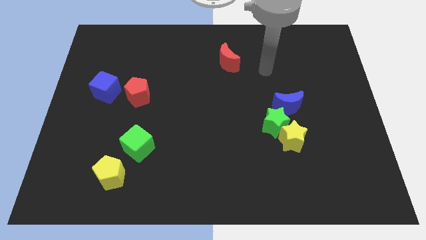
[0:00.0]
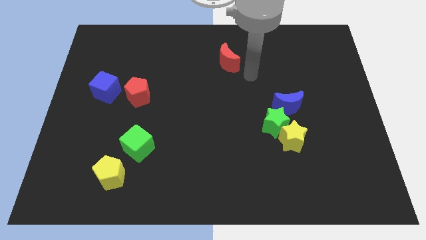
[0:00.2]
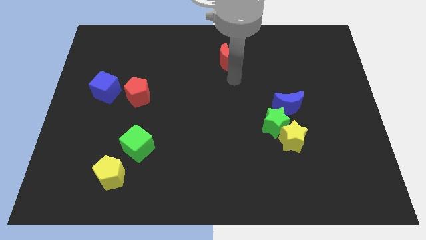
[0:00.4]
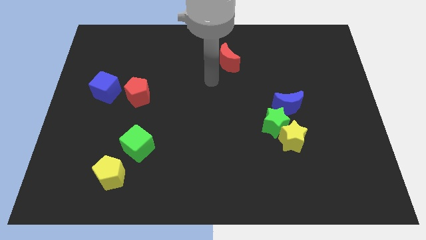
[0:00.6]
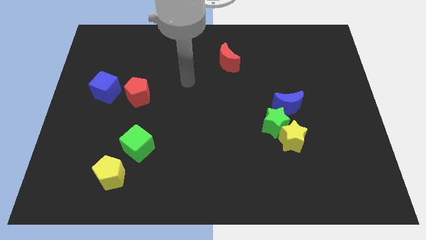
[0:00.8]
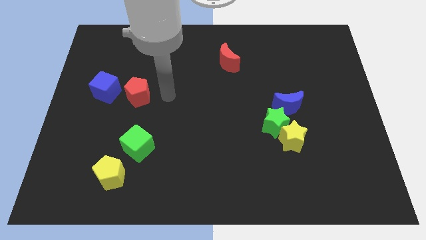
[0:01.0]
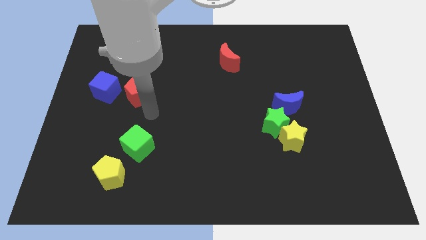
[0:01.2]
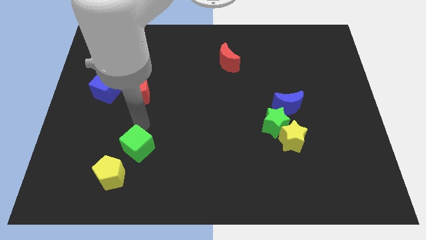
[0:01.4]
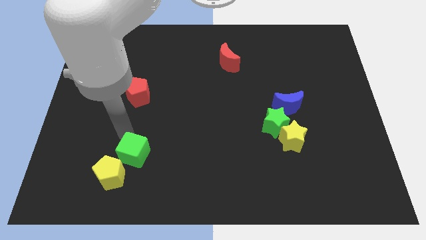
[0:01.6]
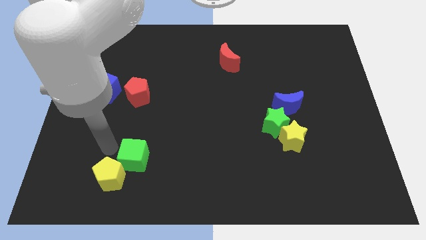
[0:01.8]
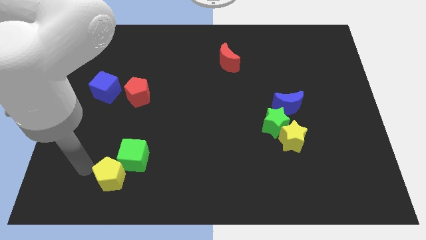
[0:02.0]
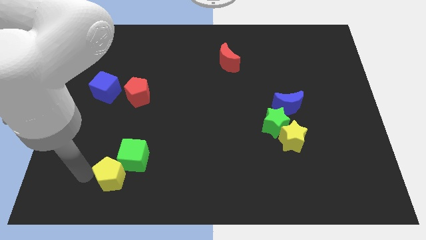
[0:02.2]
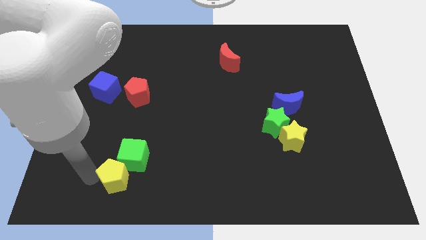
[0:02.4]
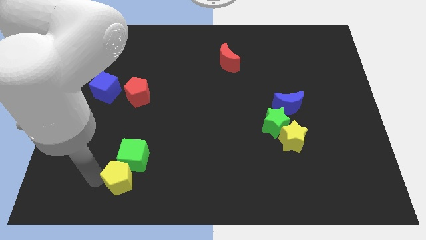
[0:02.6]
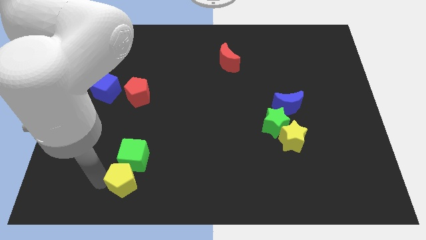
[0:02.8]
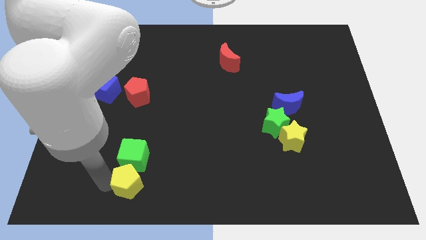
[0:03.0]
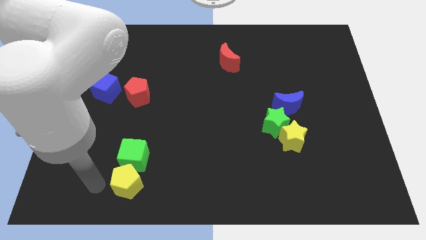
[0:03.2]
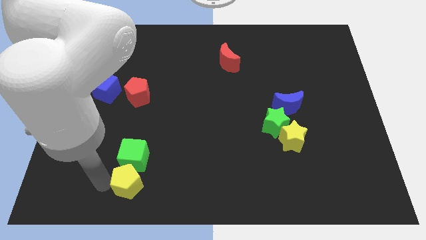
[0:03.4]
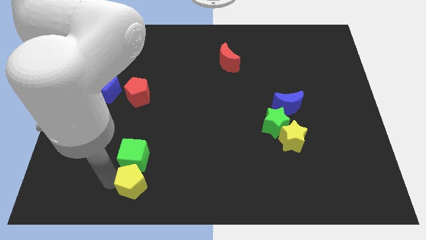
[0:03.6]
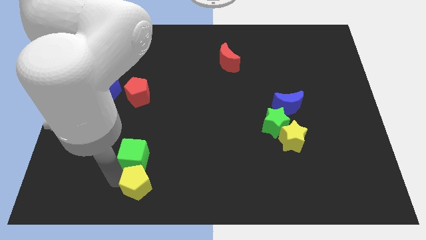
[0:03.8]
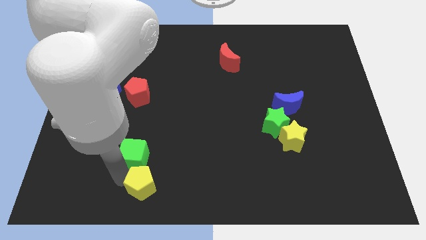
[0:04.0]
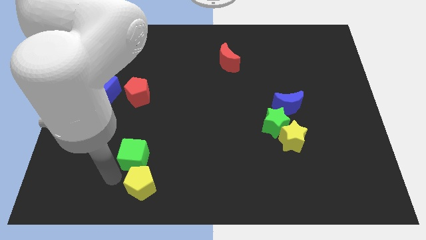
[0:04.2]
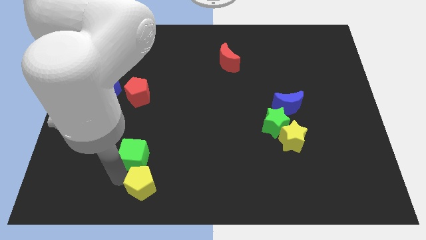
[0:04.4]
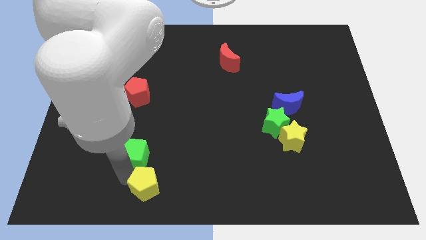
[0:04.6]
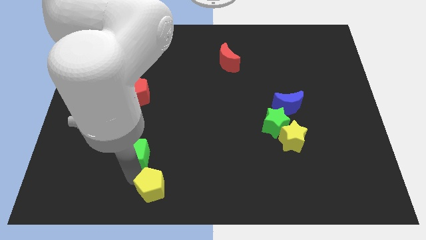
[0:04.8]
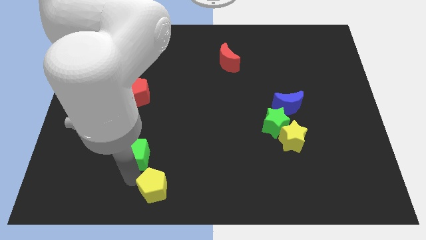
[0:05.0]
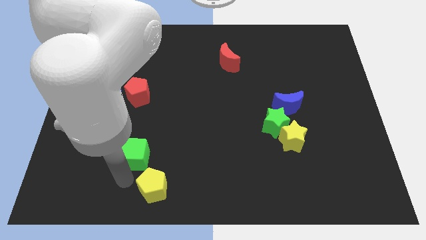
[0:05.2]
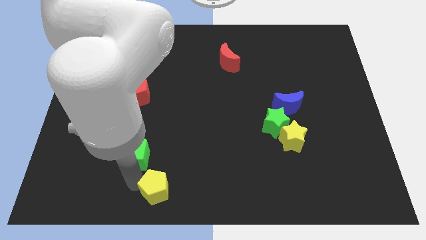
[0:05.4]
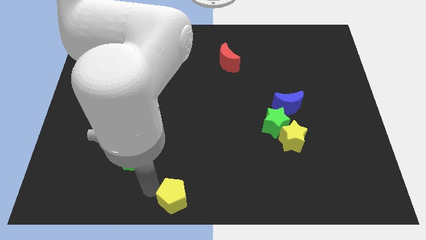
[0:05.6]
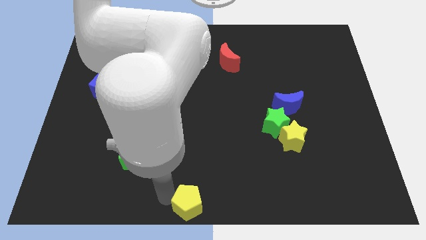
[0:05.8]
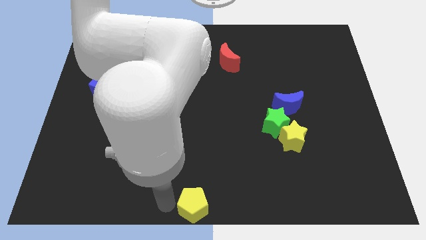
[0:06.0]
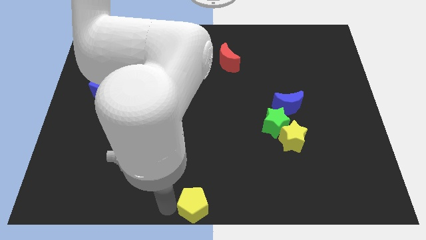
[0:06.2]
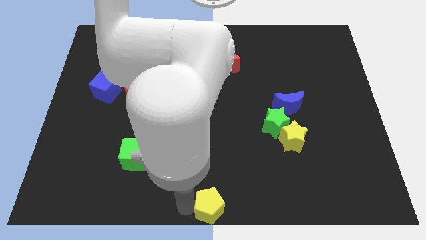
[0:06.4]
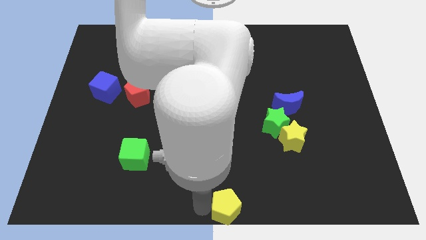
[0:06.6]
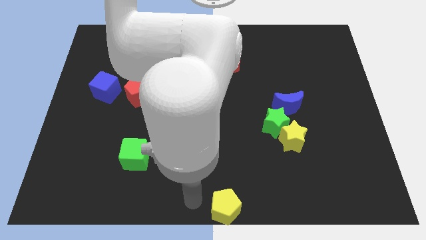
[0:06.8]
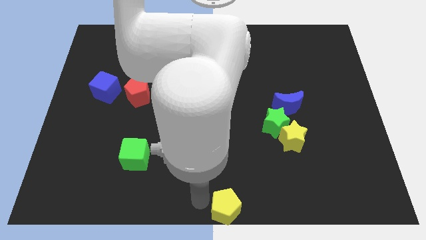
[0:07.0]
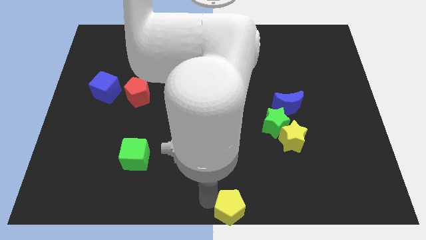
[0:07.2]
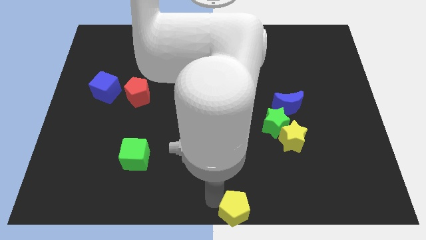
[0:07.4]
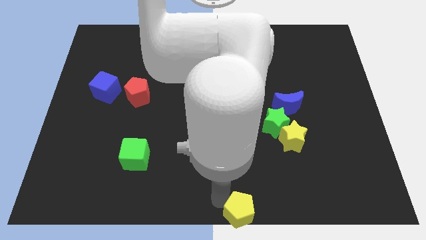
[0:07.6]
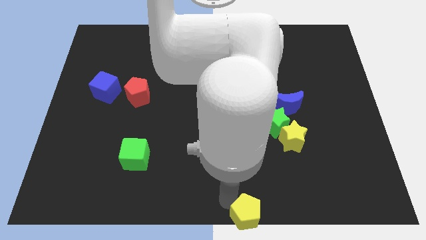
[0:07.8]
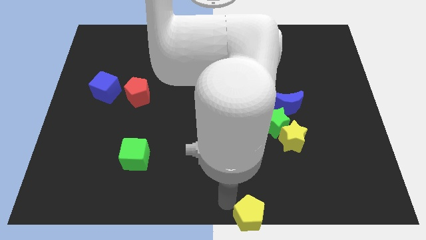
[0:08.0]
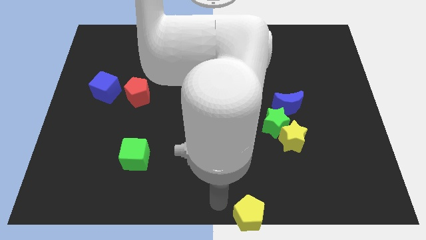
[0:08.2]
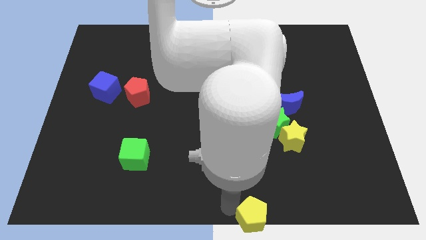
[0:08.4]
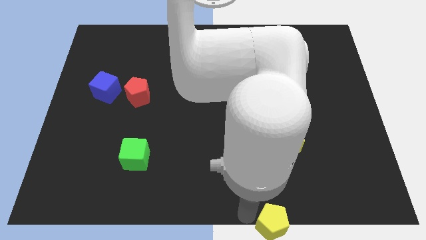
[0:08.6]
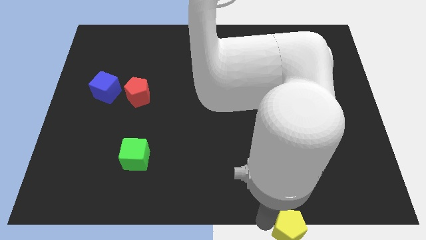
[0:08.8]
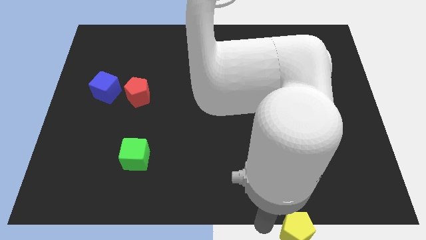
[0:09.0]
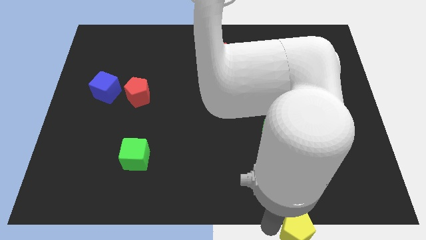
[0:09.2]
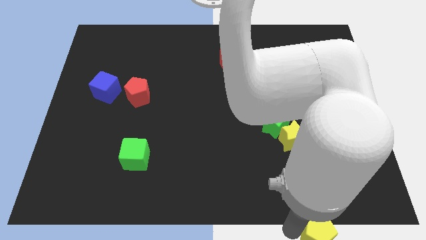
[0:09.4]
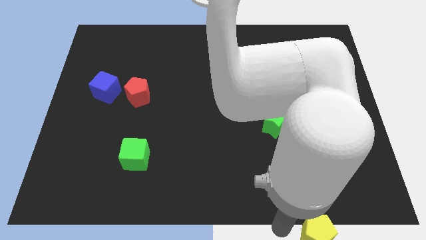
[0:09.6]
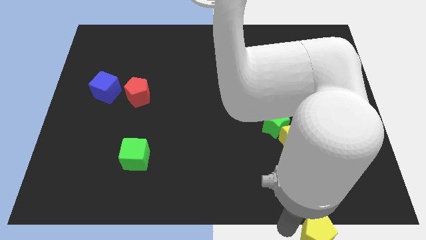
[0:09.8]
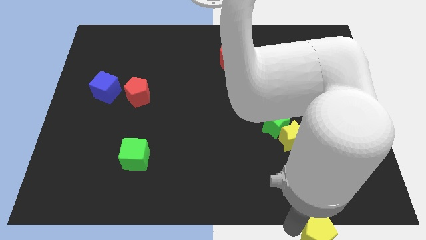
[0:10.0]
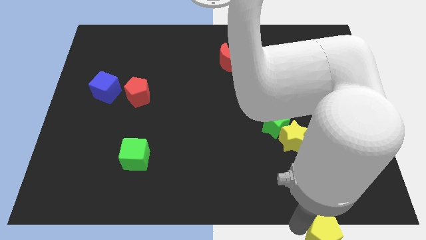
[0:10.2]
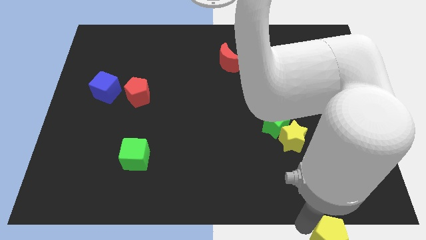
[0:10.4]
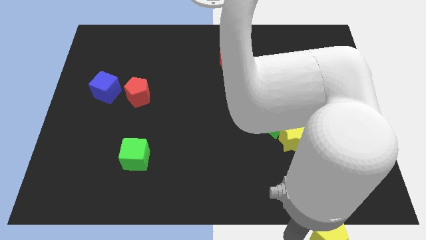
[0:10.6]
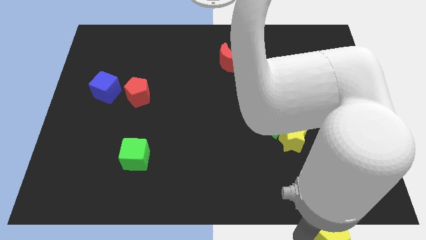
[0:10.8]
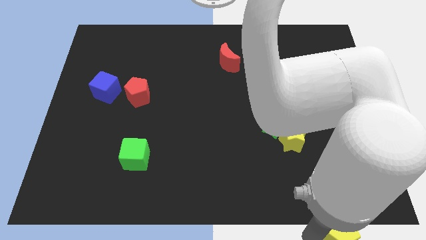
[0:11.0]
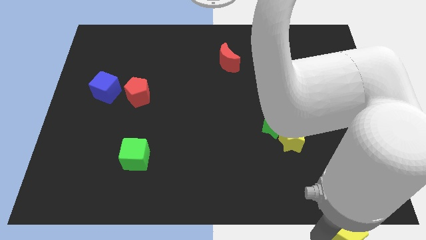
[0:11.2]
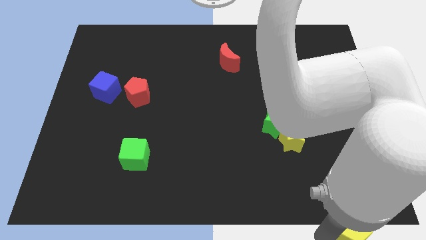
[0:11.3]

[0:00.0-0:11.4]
push the yellow pentagon to the lower right corner

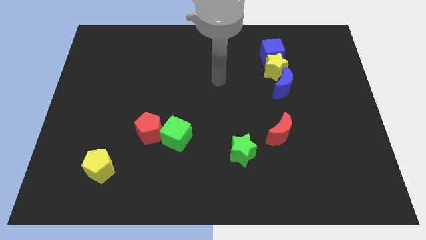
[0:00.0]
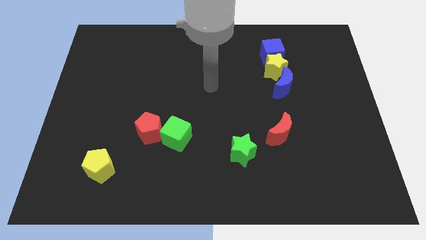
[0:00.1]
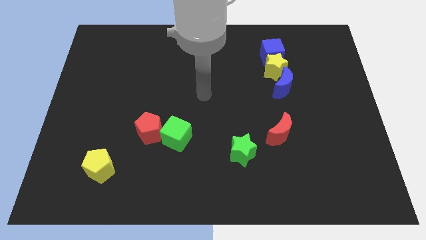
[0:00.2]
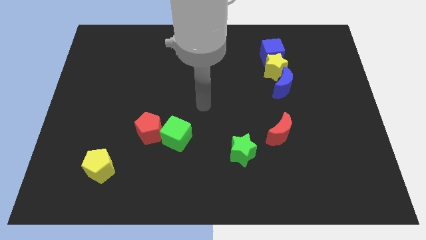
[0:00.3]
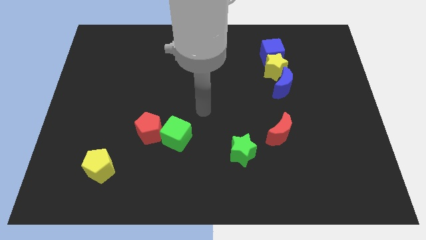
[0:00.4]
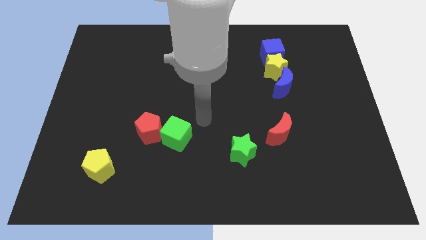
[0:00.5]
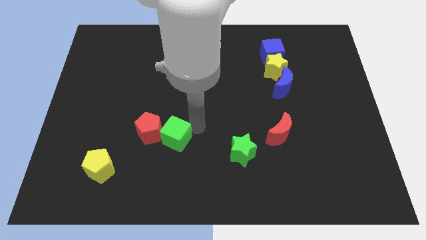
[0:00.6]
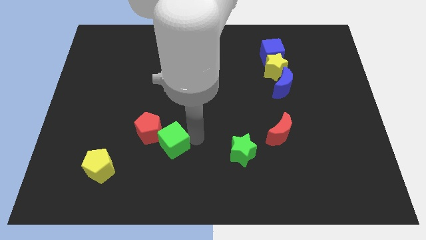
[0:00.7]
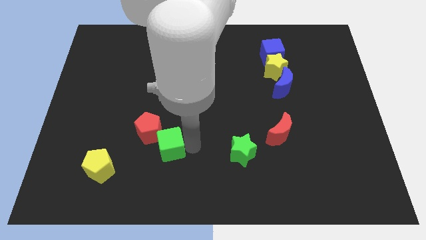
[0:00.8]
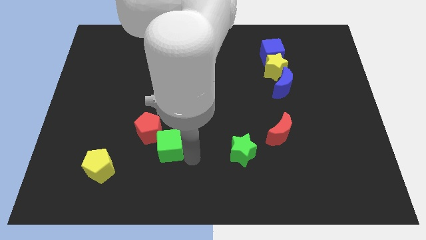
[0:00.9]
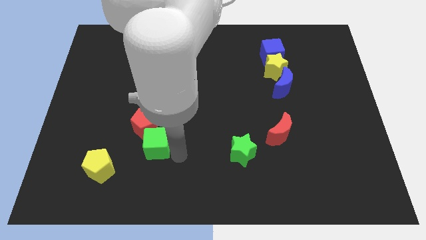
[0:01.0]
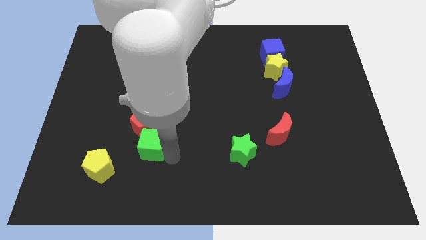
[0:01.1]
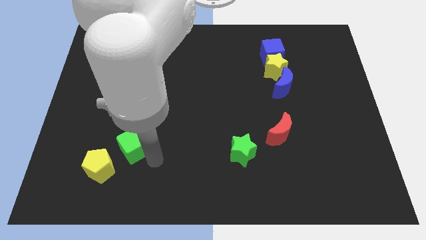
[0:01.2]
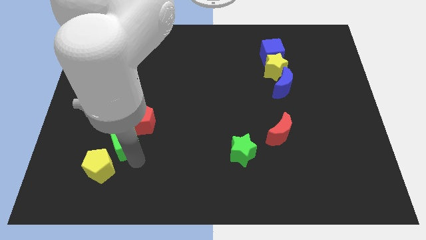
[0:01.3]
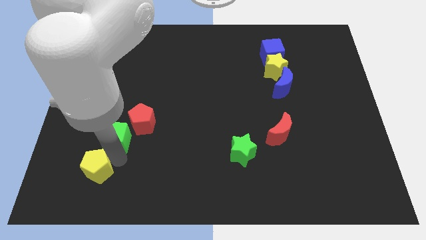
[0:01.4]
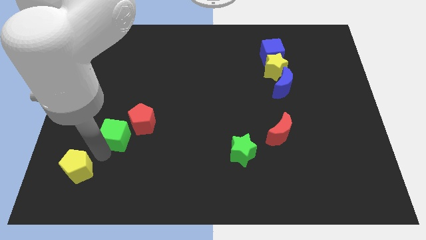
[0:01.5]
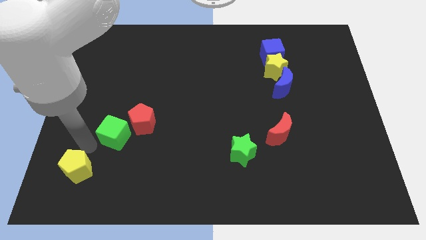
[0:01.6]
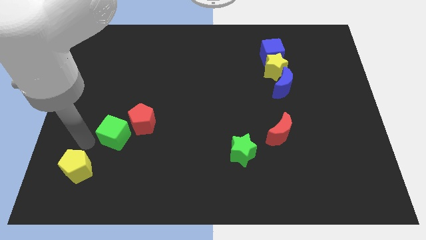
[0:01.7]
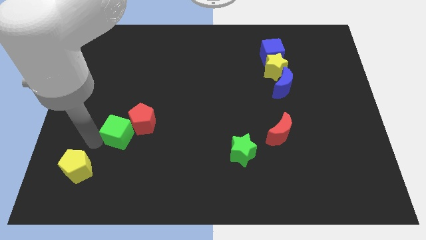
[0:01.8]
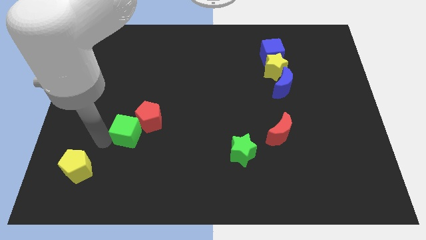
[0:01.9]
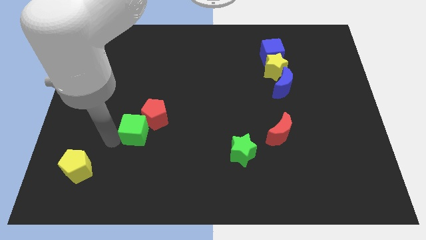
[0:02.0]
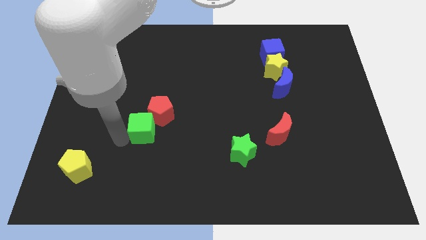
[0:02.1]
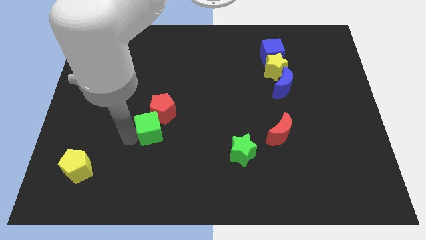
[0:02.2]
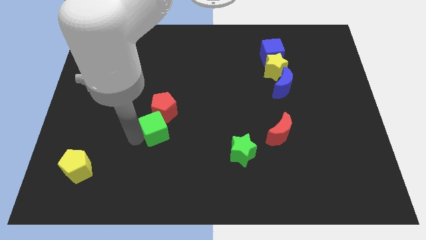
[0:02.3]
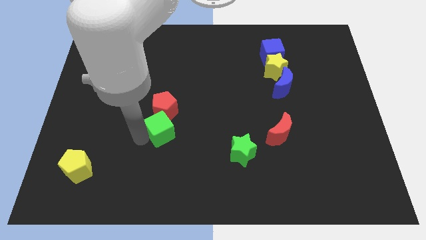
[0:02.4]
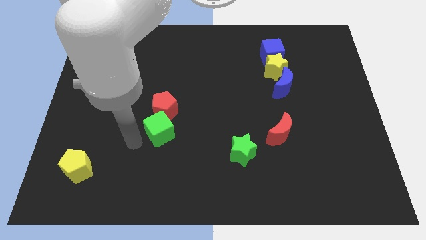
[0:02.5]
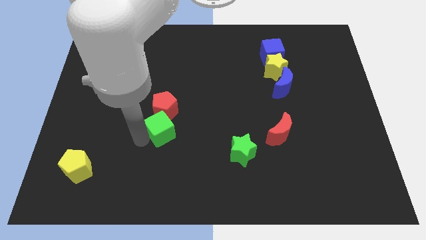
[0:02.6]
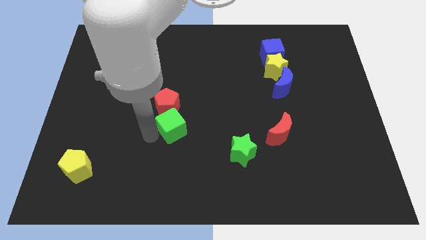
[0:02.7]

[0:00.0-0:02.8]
push the green cube to the middle of the board
